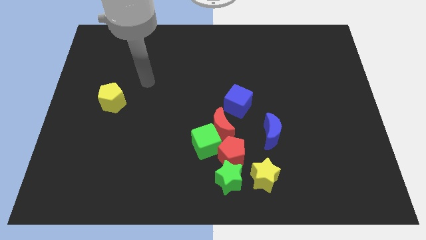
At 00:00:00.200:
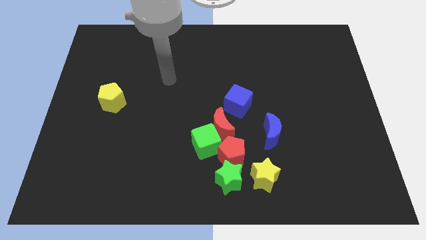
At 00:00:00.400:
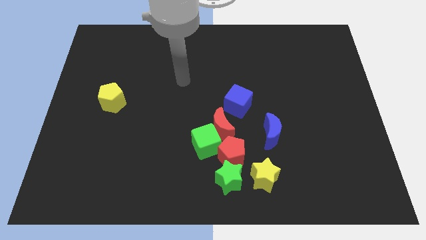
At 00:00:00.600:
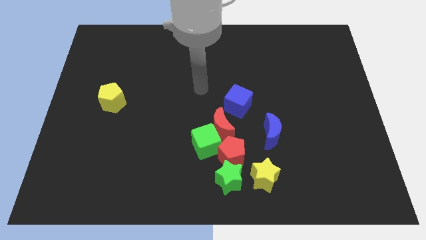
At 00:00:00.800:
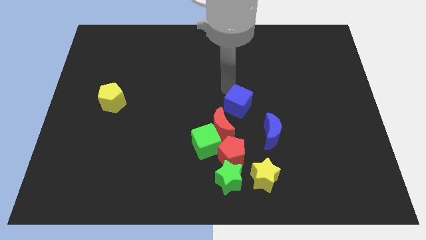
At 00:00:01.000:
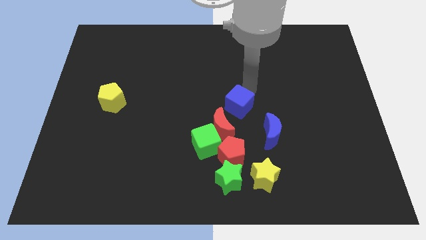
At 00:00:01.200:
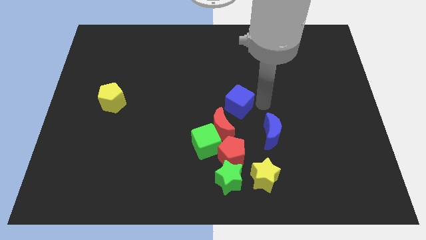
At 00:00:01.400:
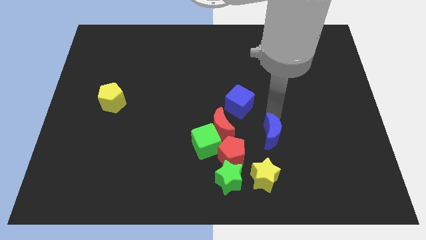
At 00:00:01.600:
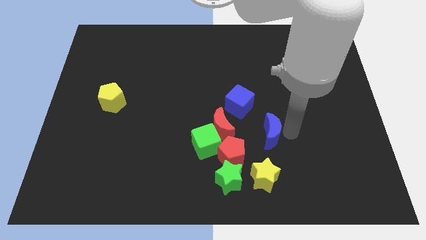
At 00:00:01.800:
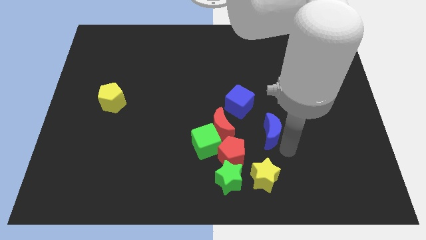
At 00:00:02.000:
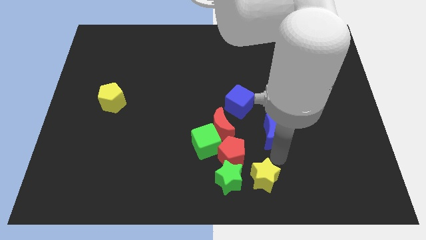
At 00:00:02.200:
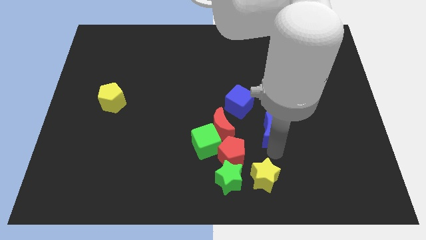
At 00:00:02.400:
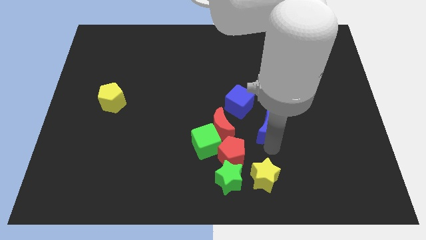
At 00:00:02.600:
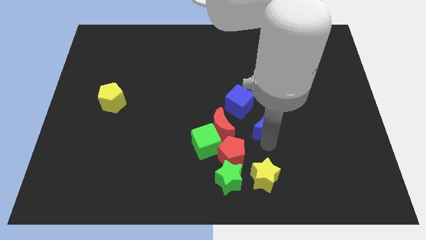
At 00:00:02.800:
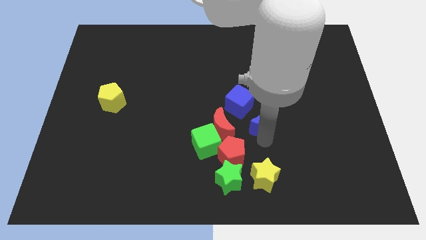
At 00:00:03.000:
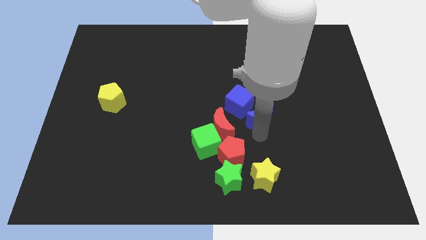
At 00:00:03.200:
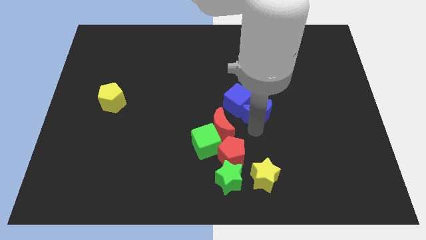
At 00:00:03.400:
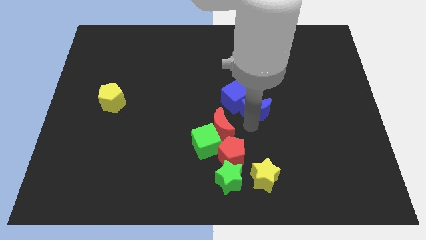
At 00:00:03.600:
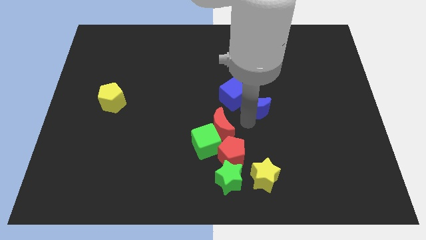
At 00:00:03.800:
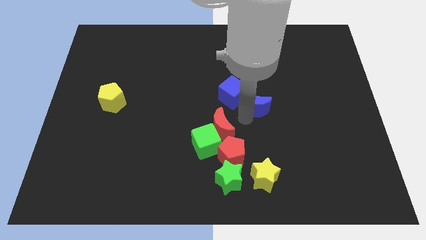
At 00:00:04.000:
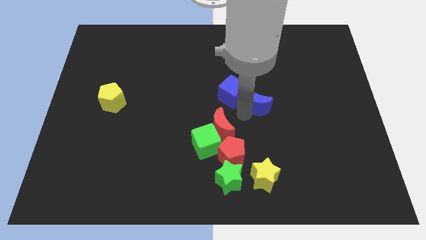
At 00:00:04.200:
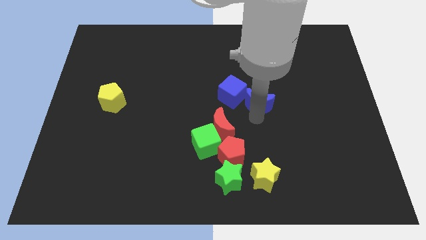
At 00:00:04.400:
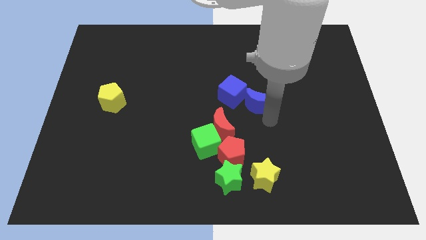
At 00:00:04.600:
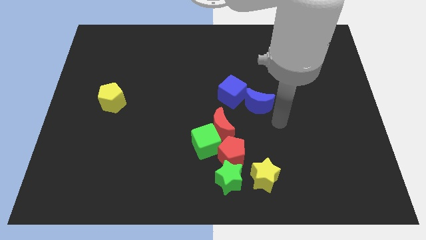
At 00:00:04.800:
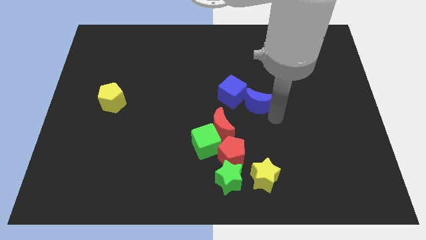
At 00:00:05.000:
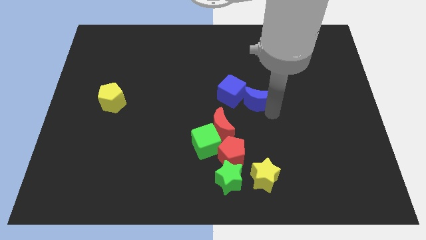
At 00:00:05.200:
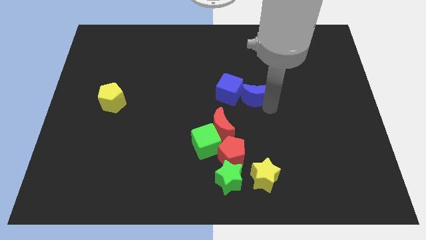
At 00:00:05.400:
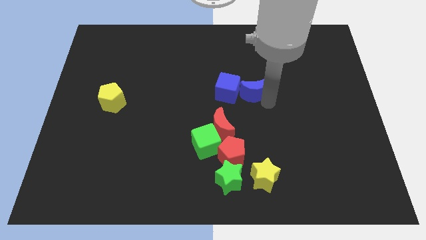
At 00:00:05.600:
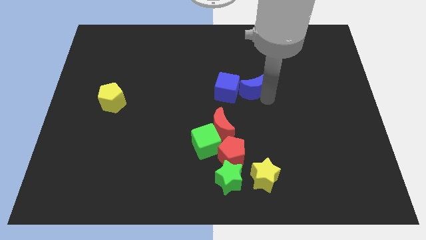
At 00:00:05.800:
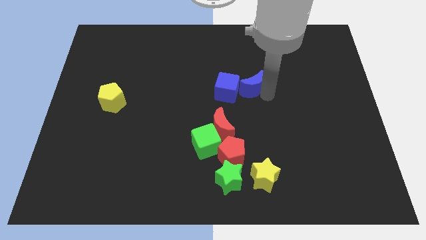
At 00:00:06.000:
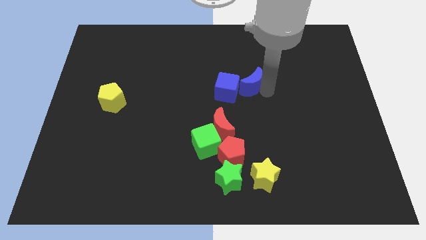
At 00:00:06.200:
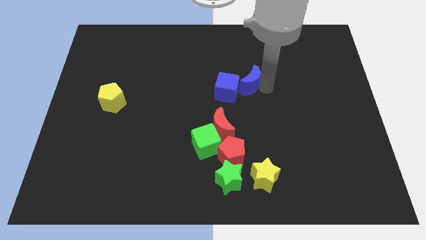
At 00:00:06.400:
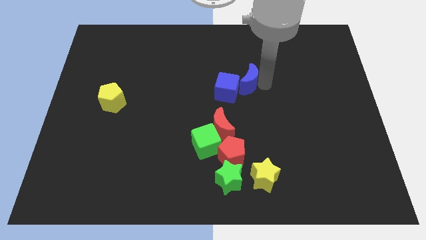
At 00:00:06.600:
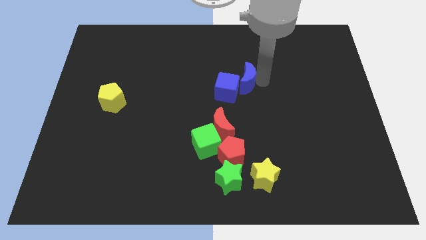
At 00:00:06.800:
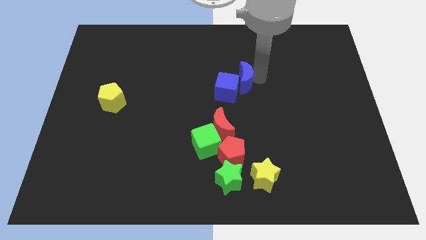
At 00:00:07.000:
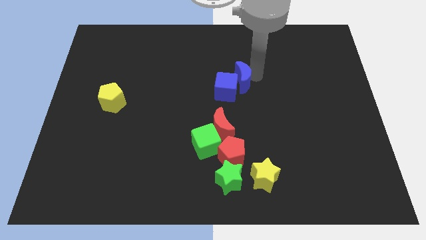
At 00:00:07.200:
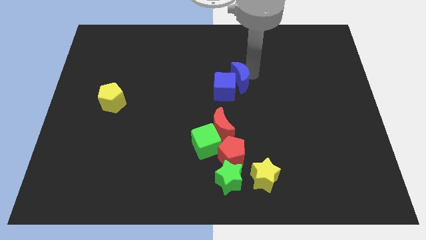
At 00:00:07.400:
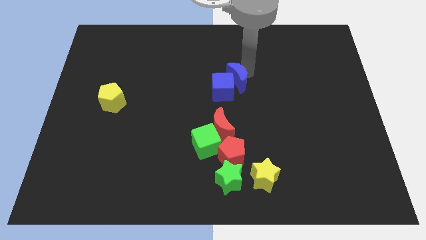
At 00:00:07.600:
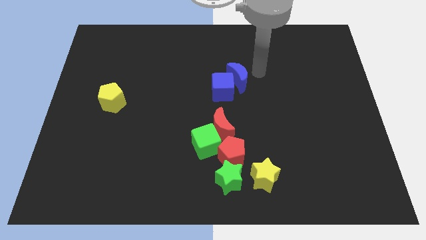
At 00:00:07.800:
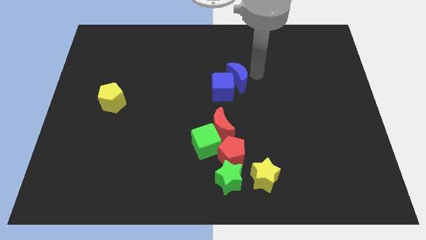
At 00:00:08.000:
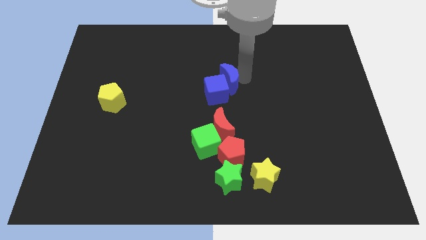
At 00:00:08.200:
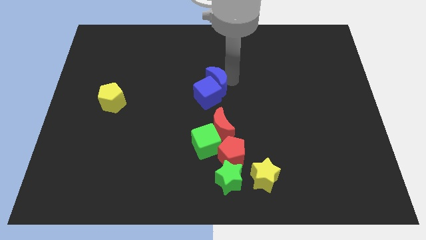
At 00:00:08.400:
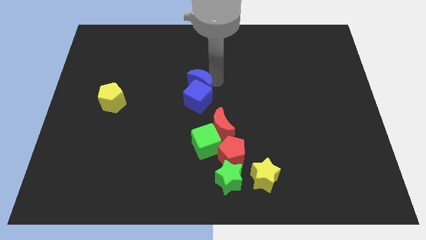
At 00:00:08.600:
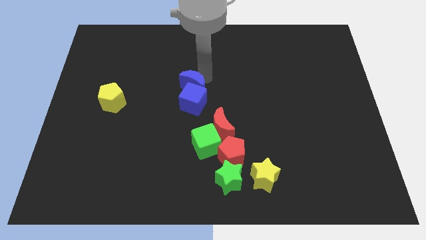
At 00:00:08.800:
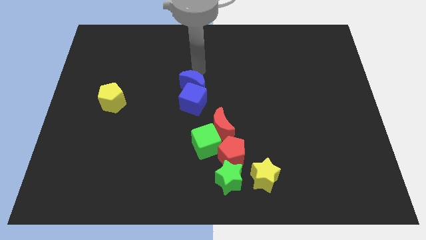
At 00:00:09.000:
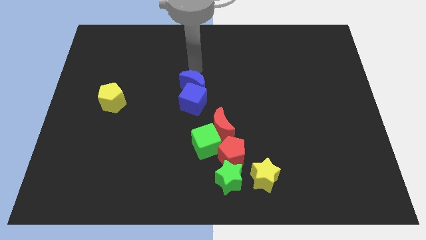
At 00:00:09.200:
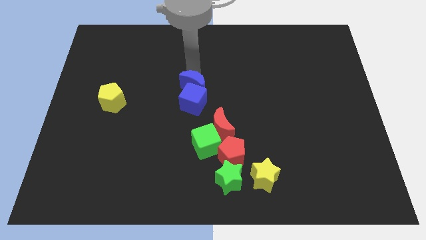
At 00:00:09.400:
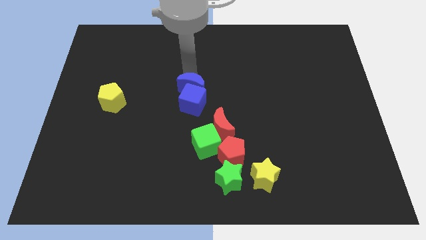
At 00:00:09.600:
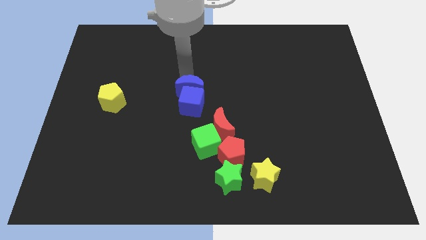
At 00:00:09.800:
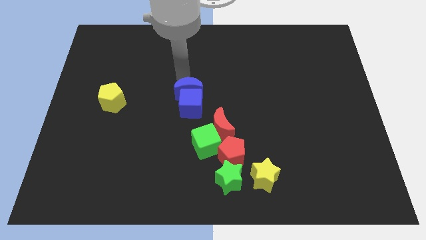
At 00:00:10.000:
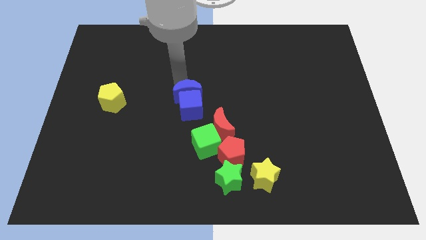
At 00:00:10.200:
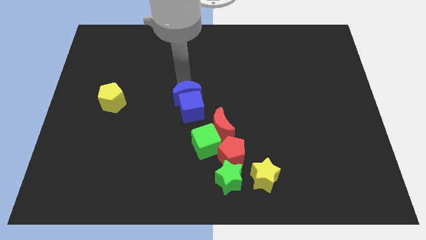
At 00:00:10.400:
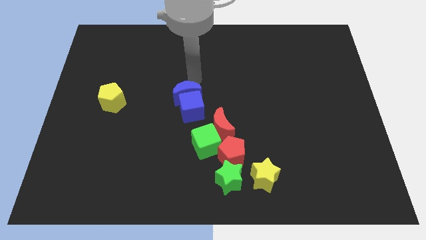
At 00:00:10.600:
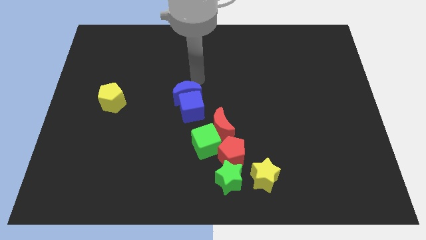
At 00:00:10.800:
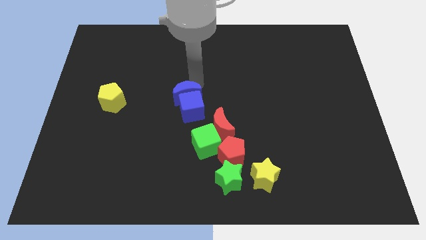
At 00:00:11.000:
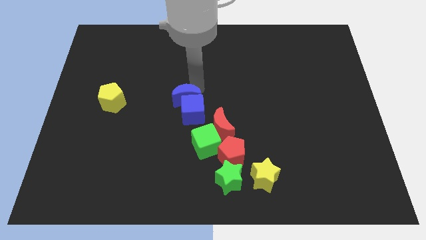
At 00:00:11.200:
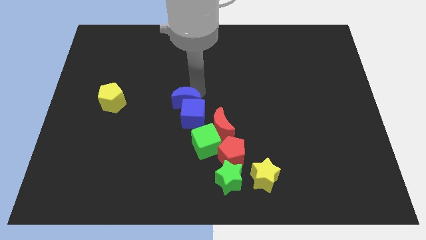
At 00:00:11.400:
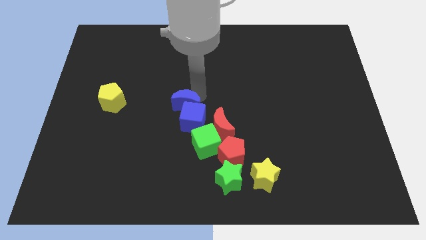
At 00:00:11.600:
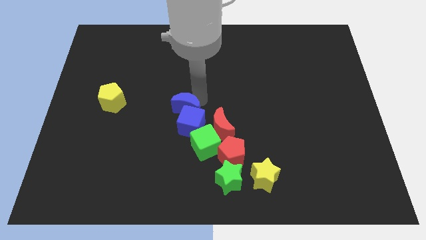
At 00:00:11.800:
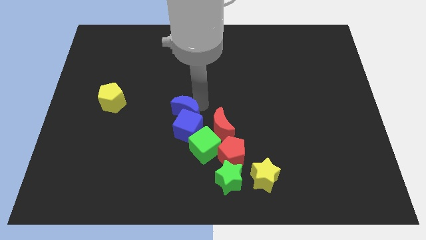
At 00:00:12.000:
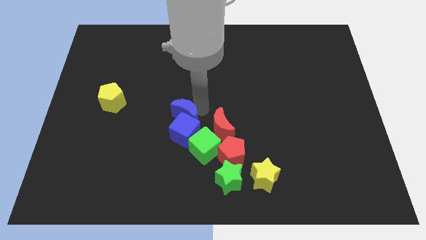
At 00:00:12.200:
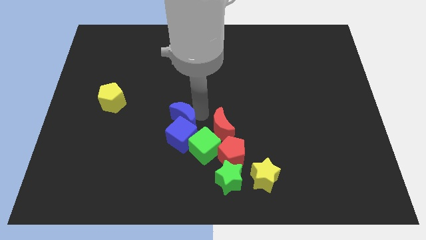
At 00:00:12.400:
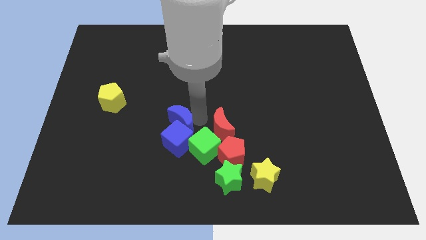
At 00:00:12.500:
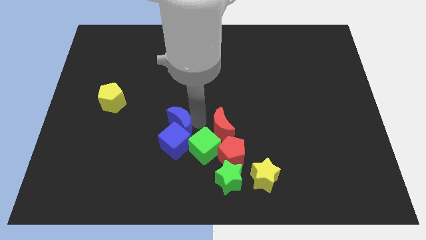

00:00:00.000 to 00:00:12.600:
move the blue moon left

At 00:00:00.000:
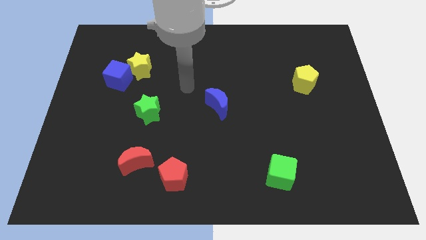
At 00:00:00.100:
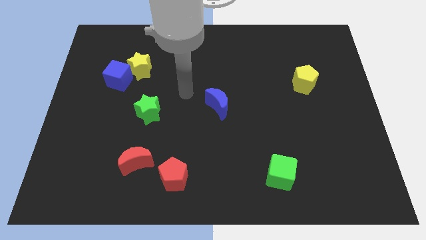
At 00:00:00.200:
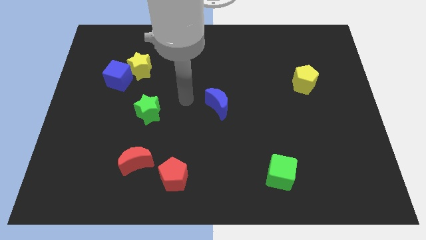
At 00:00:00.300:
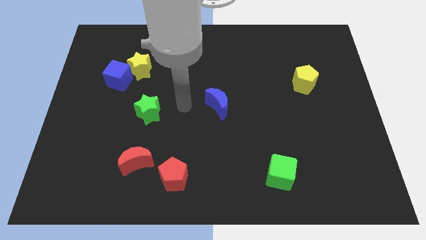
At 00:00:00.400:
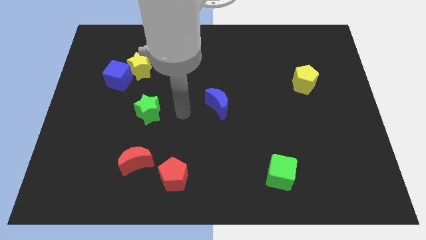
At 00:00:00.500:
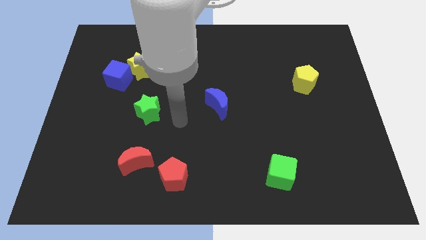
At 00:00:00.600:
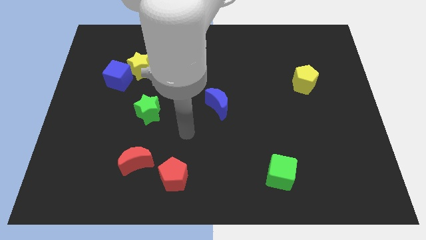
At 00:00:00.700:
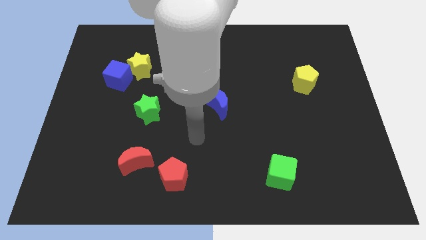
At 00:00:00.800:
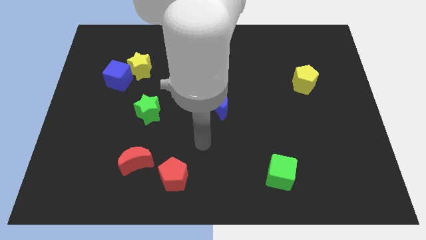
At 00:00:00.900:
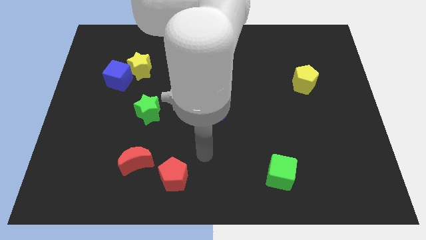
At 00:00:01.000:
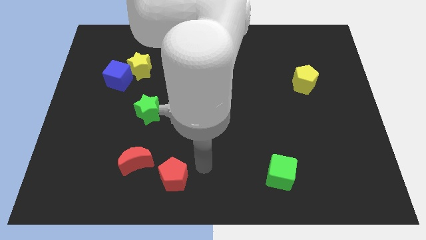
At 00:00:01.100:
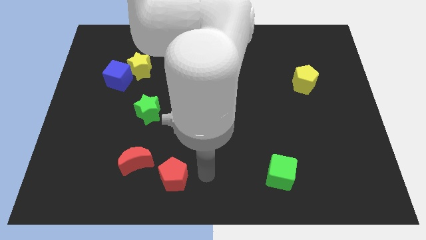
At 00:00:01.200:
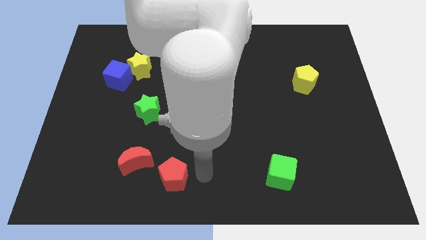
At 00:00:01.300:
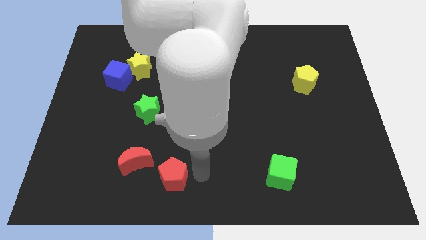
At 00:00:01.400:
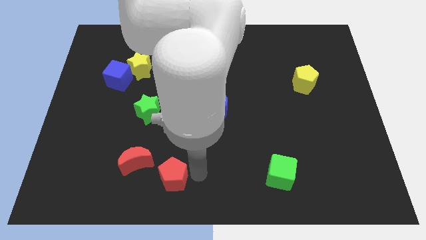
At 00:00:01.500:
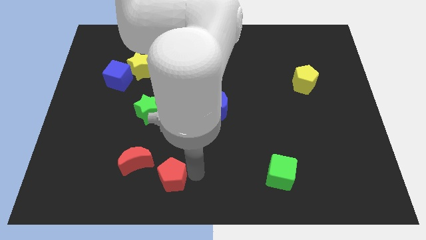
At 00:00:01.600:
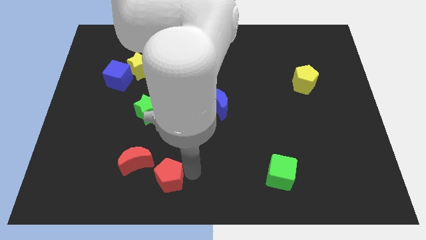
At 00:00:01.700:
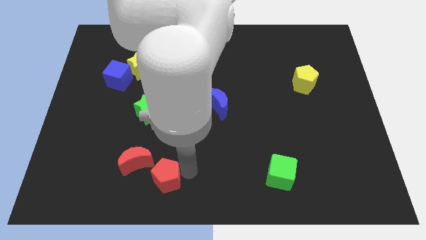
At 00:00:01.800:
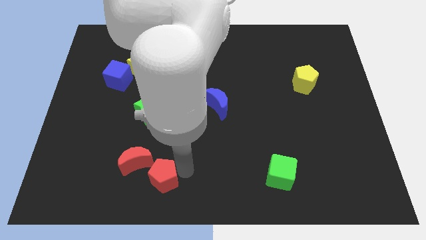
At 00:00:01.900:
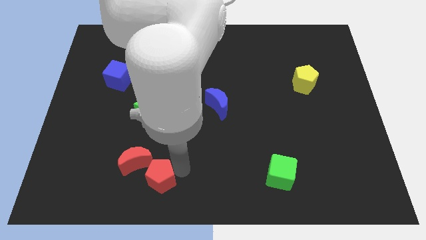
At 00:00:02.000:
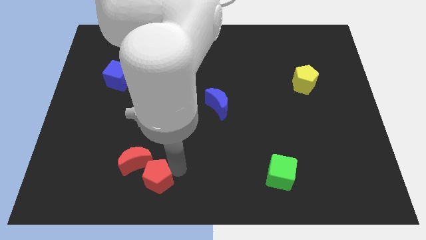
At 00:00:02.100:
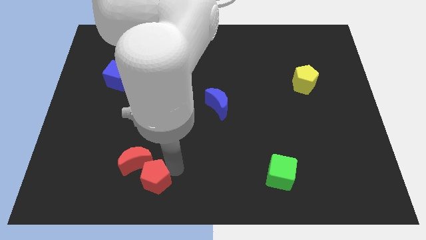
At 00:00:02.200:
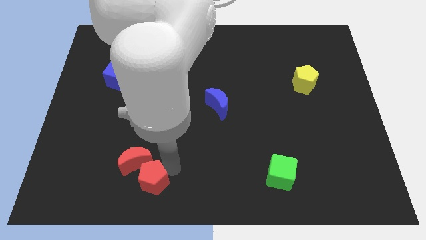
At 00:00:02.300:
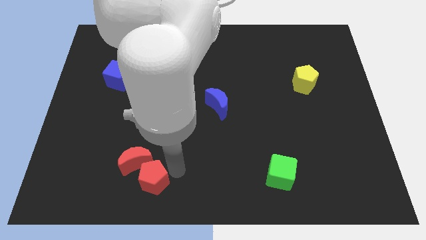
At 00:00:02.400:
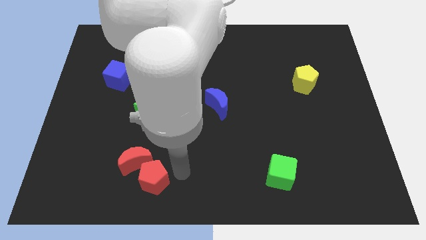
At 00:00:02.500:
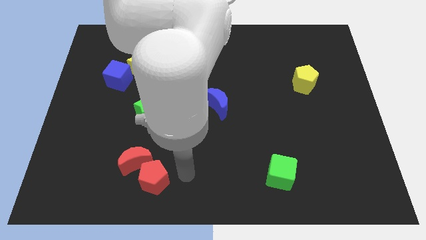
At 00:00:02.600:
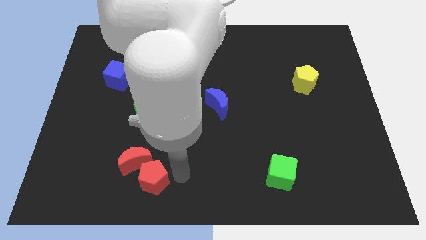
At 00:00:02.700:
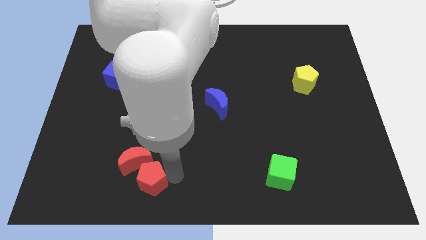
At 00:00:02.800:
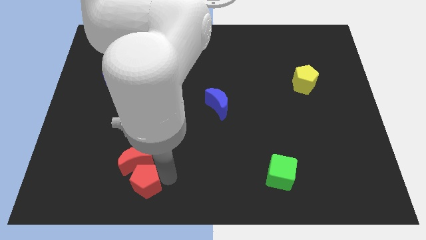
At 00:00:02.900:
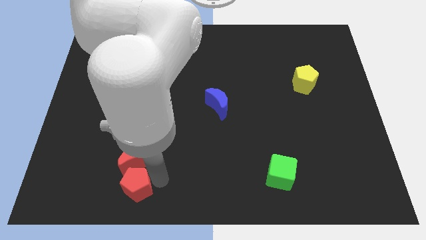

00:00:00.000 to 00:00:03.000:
slightly push the red pentagon to the left
